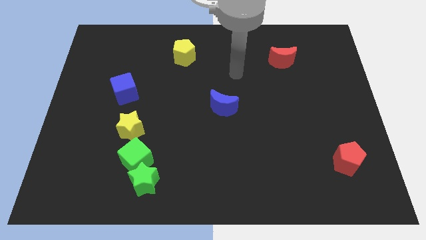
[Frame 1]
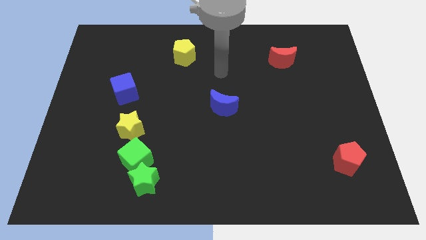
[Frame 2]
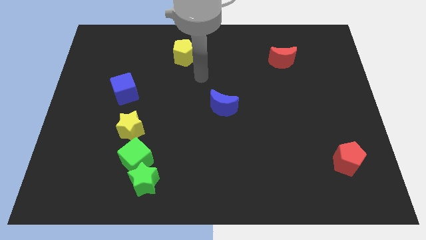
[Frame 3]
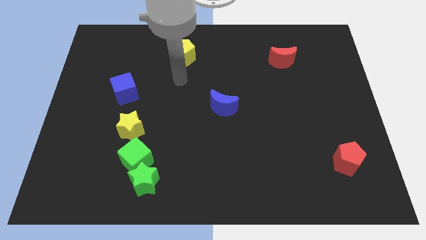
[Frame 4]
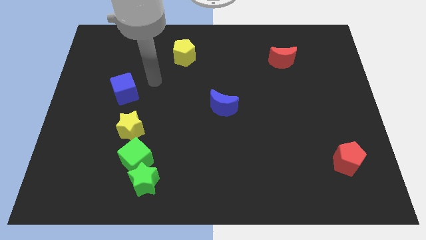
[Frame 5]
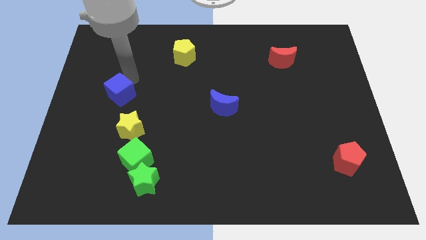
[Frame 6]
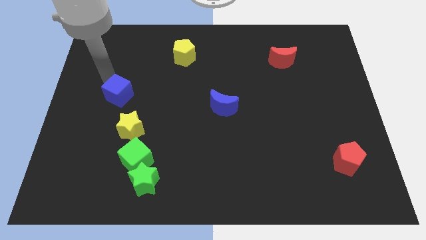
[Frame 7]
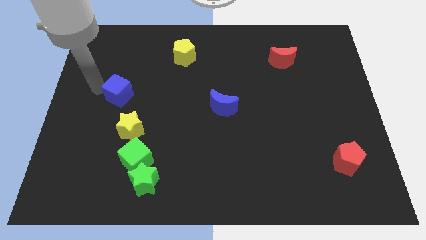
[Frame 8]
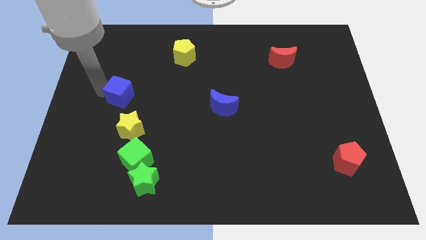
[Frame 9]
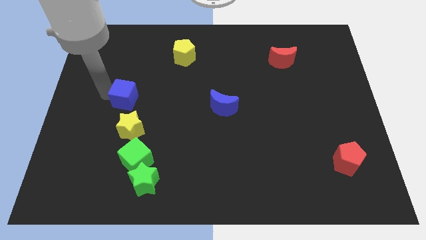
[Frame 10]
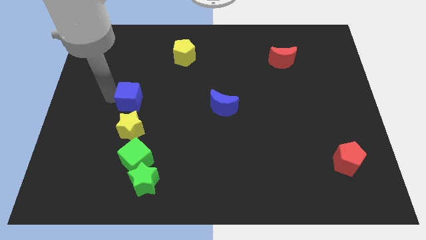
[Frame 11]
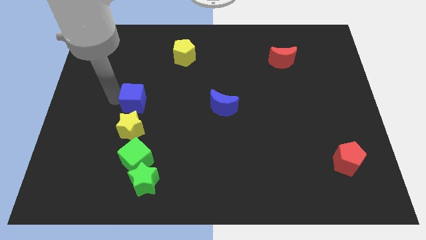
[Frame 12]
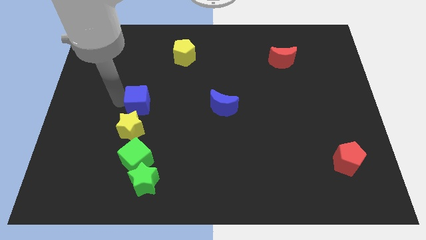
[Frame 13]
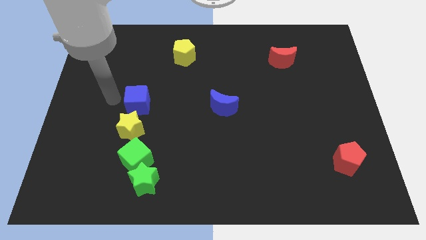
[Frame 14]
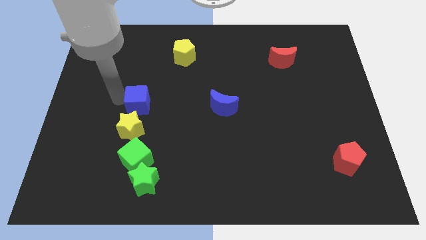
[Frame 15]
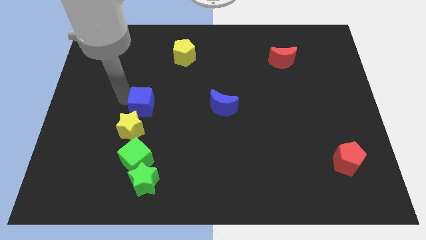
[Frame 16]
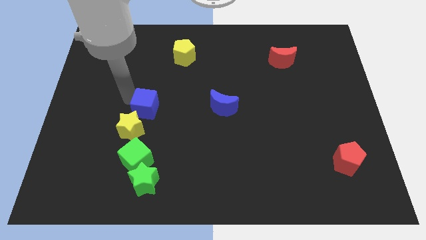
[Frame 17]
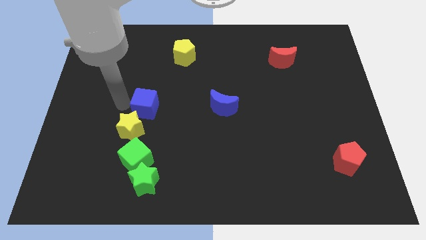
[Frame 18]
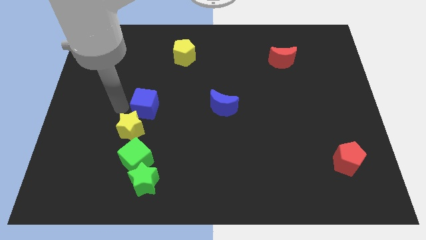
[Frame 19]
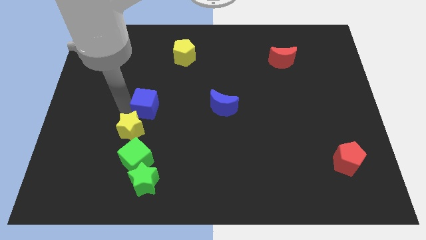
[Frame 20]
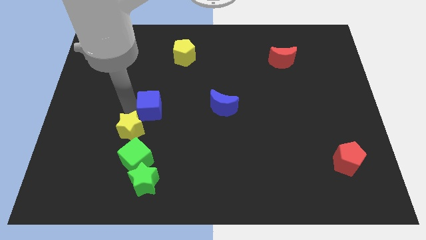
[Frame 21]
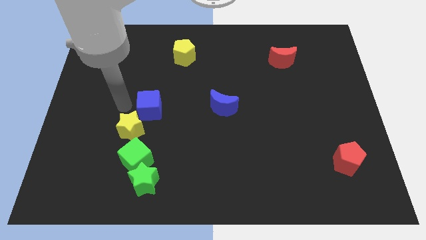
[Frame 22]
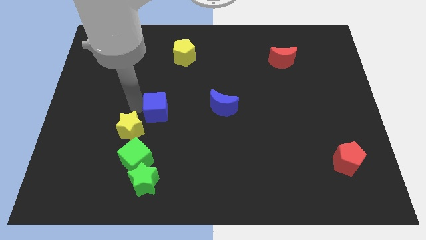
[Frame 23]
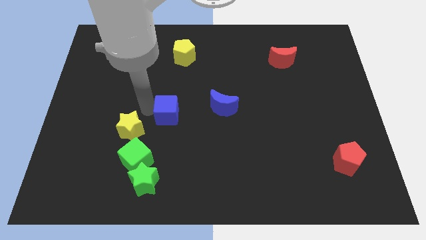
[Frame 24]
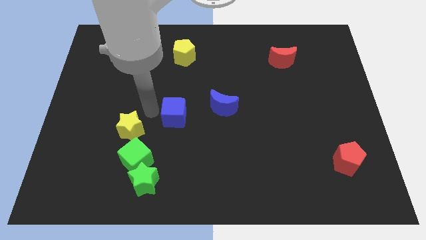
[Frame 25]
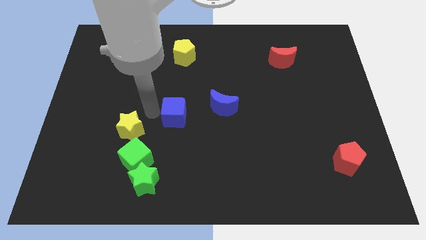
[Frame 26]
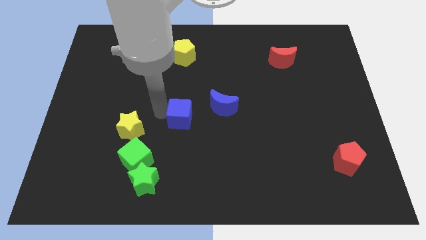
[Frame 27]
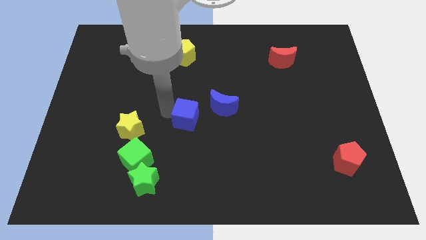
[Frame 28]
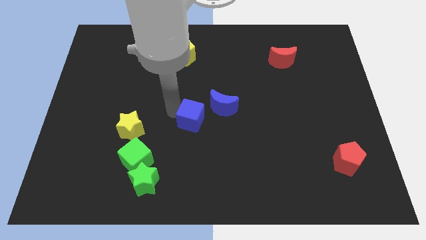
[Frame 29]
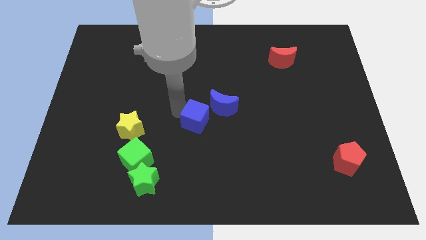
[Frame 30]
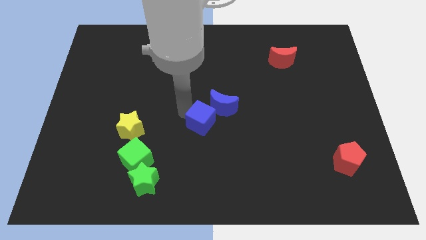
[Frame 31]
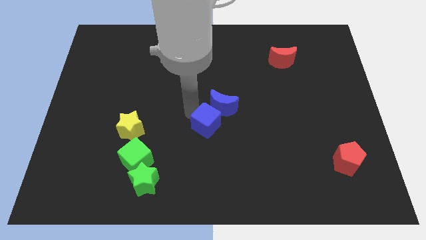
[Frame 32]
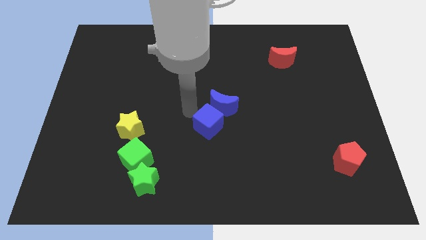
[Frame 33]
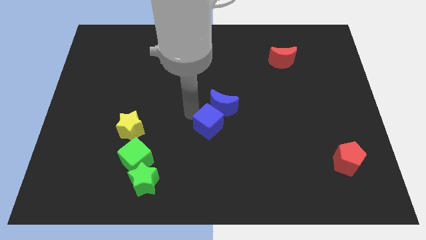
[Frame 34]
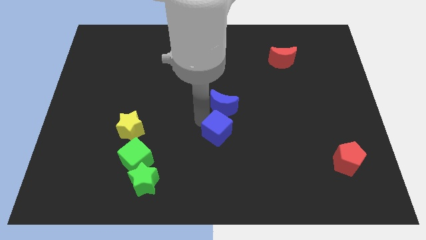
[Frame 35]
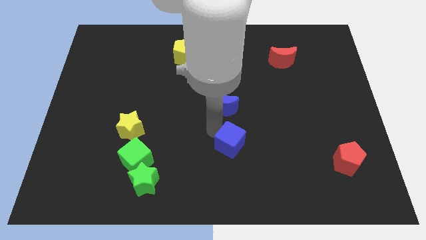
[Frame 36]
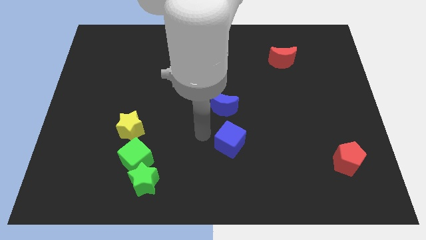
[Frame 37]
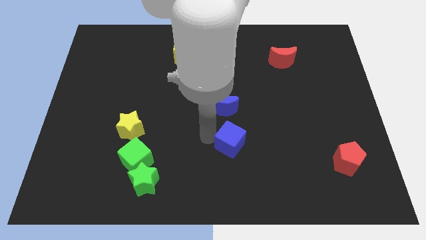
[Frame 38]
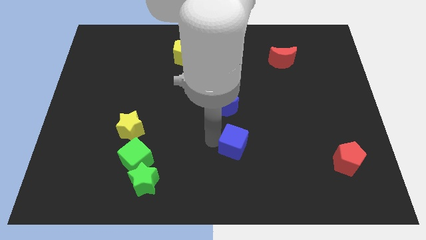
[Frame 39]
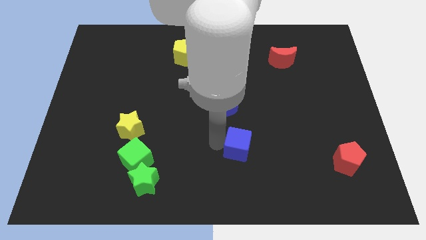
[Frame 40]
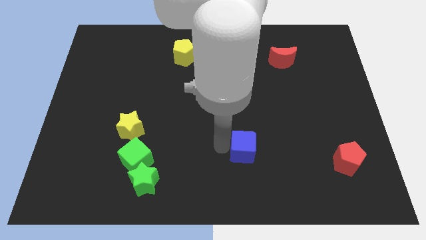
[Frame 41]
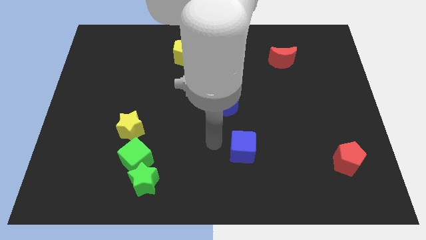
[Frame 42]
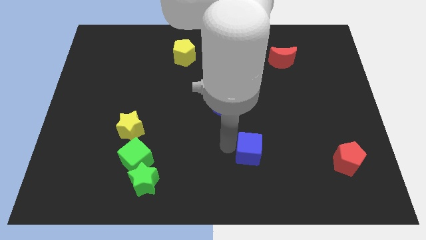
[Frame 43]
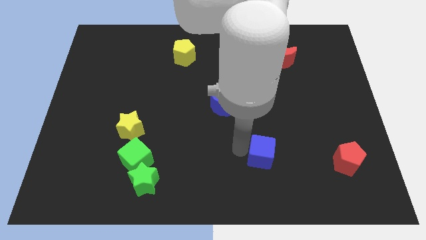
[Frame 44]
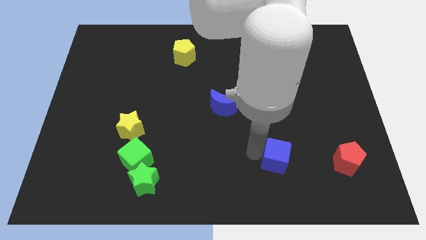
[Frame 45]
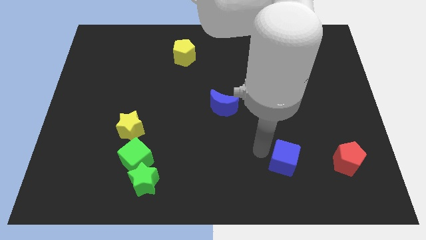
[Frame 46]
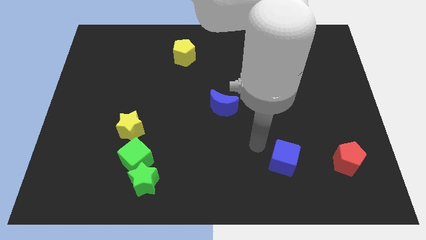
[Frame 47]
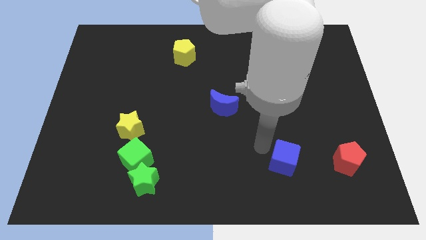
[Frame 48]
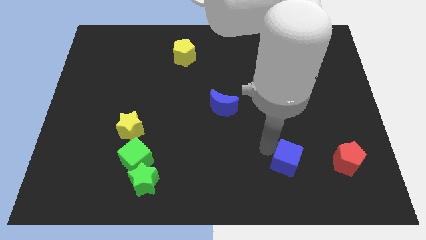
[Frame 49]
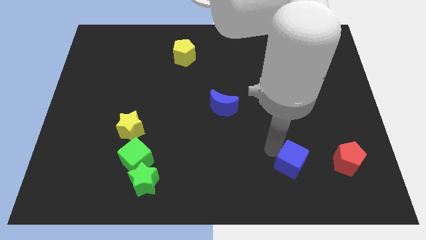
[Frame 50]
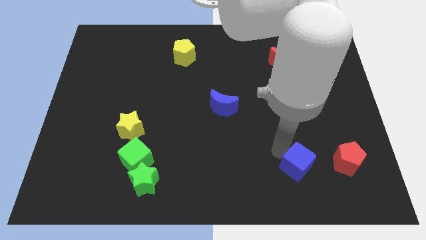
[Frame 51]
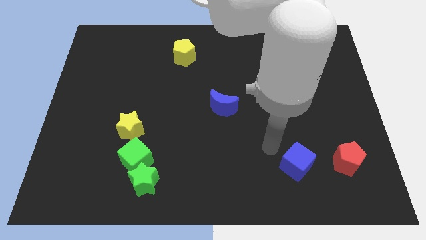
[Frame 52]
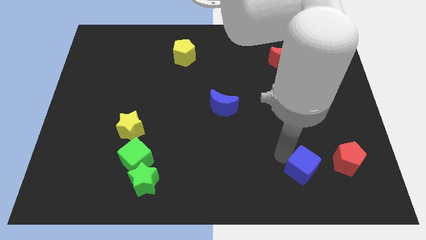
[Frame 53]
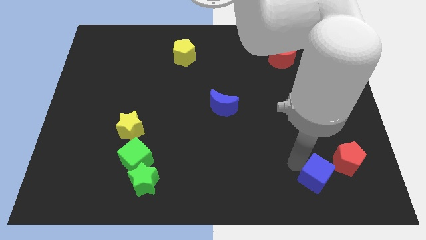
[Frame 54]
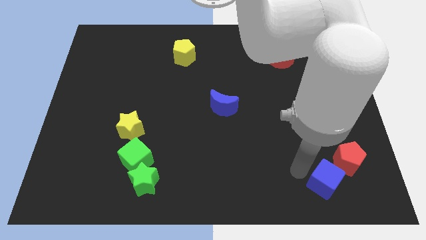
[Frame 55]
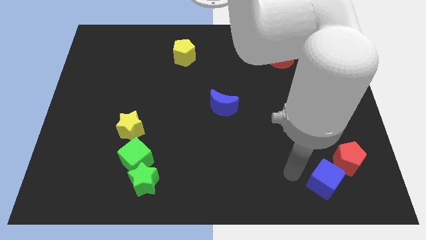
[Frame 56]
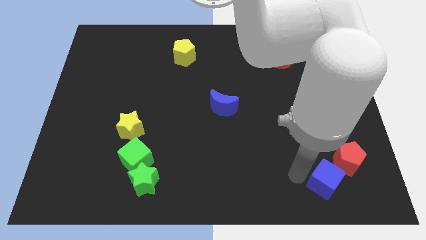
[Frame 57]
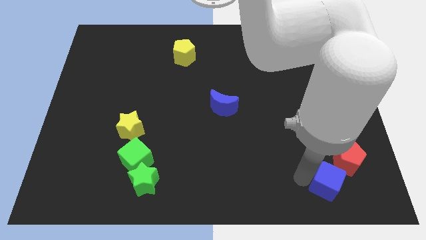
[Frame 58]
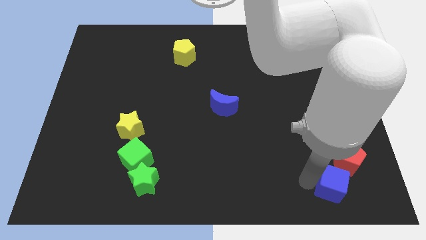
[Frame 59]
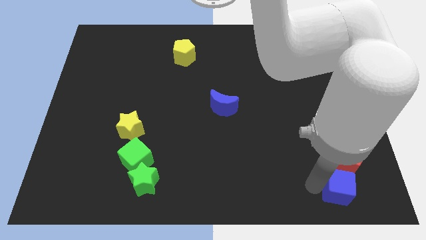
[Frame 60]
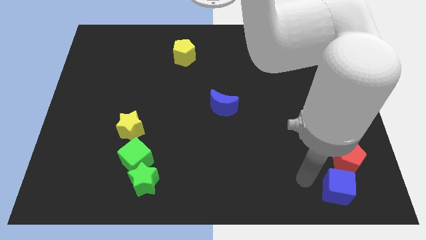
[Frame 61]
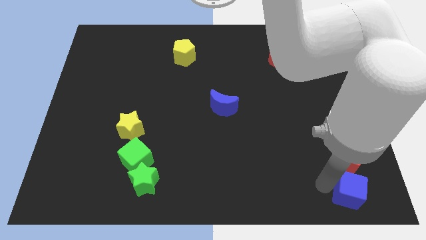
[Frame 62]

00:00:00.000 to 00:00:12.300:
slide the blue cube to the bottom right corner

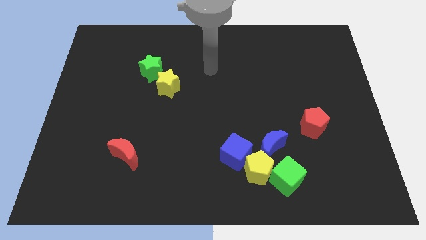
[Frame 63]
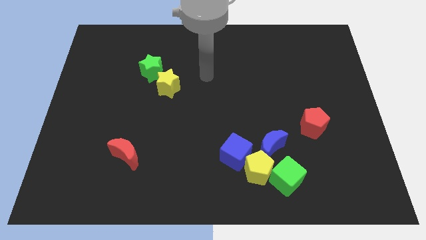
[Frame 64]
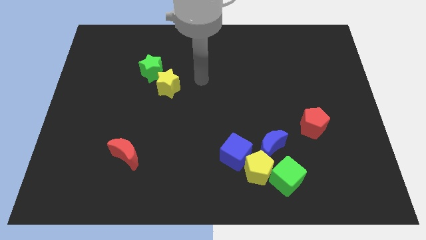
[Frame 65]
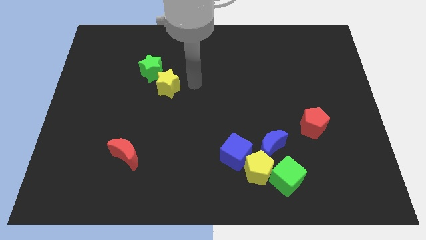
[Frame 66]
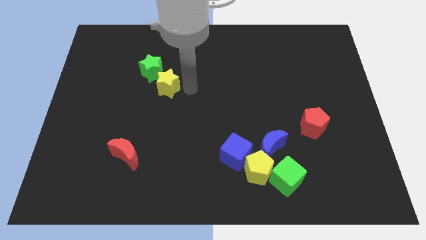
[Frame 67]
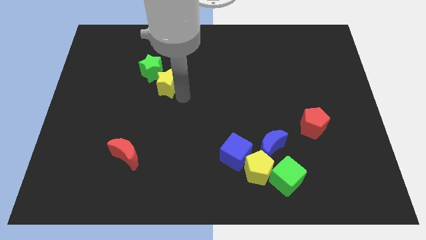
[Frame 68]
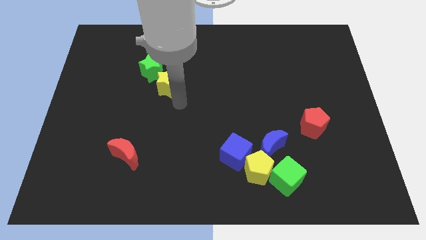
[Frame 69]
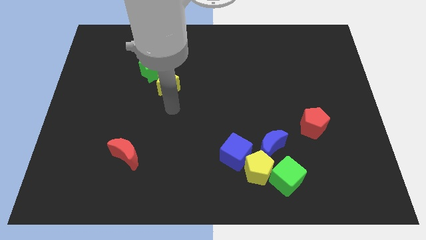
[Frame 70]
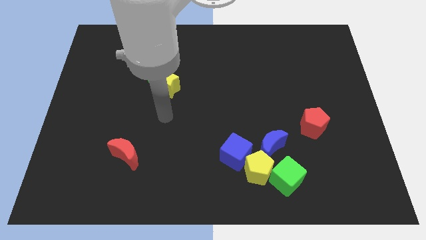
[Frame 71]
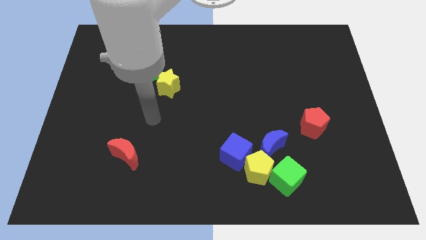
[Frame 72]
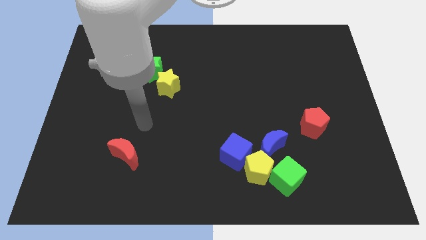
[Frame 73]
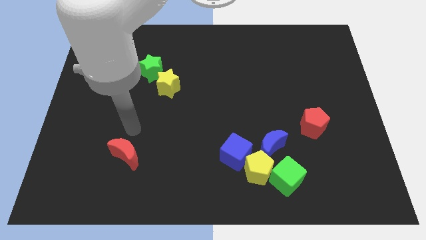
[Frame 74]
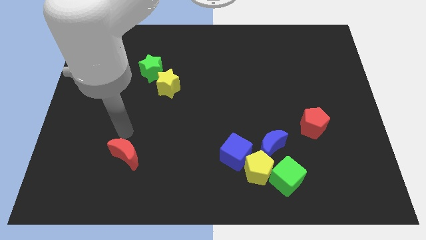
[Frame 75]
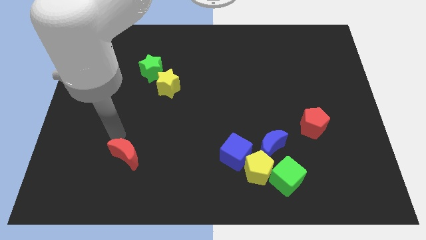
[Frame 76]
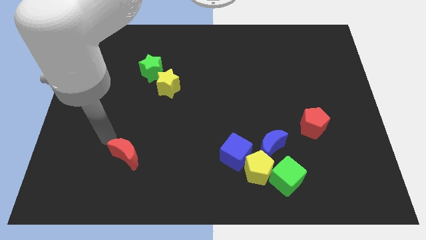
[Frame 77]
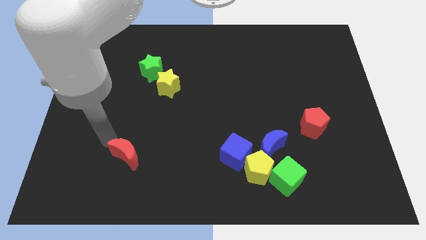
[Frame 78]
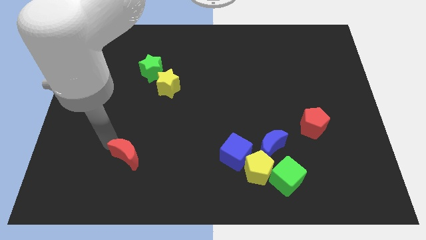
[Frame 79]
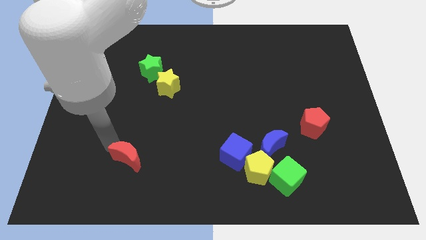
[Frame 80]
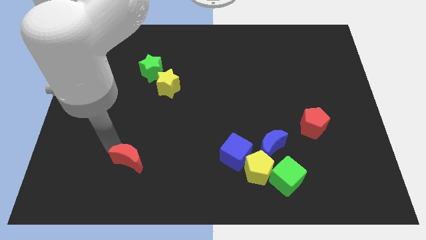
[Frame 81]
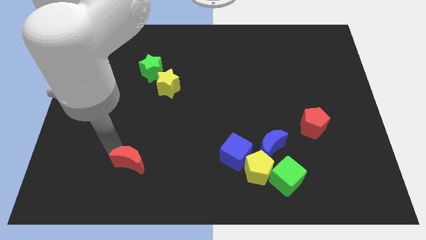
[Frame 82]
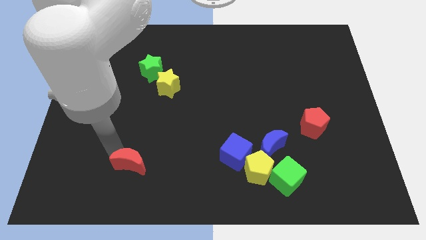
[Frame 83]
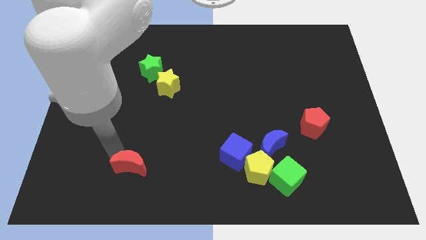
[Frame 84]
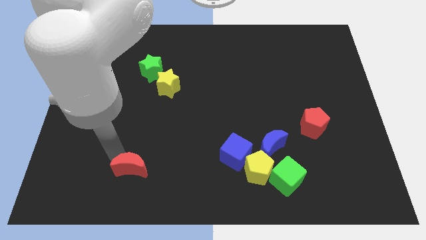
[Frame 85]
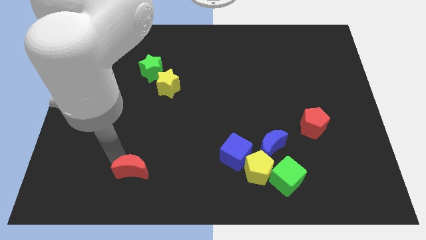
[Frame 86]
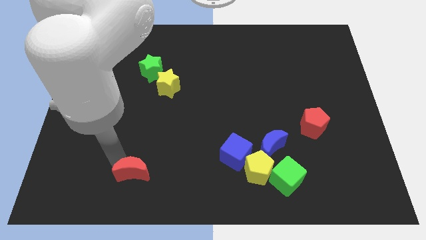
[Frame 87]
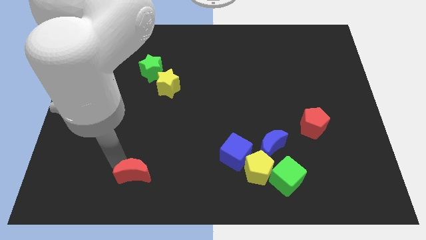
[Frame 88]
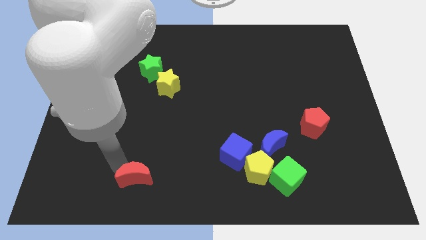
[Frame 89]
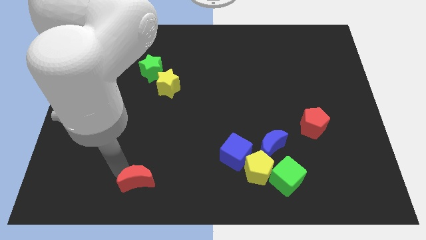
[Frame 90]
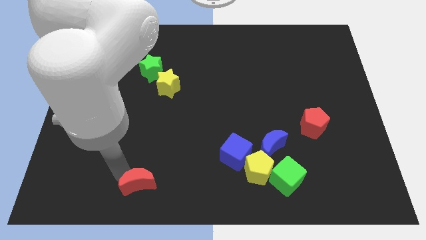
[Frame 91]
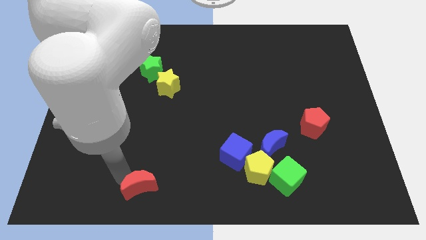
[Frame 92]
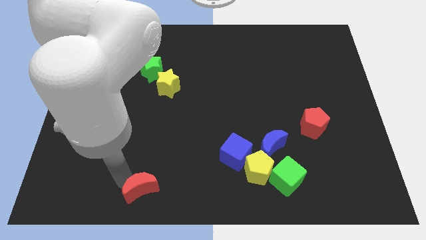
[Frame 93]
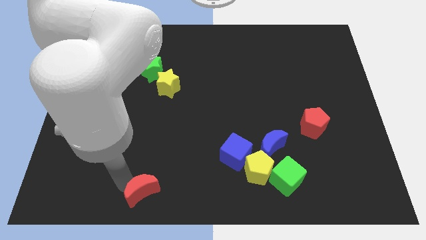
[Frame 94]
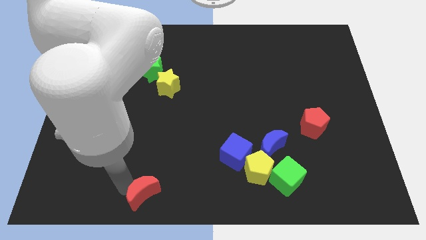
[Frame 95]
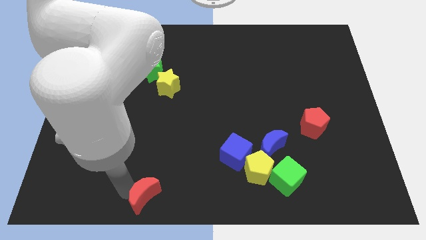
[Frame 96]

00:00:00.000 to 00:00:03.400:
move the red moon to the bottom
